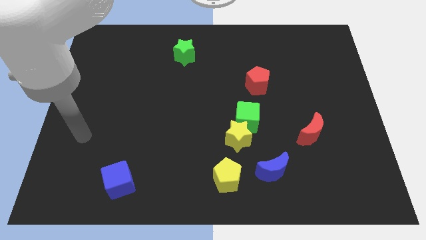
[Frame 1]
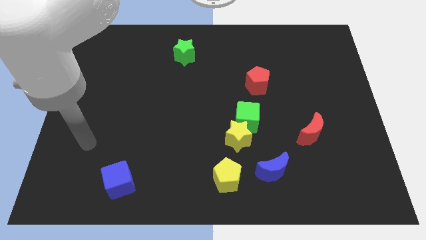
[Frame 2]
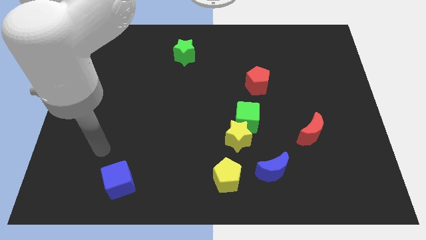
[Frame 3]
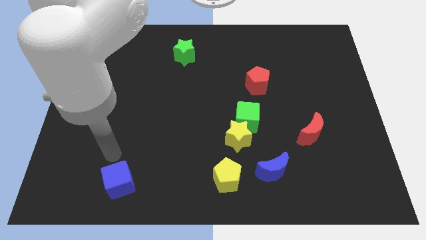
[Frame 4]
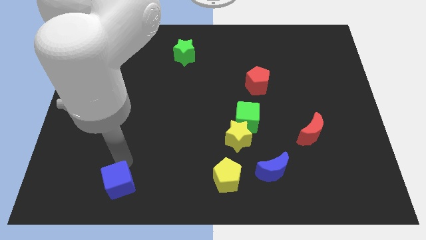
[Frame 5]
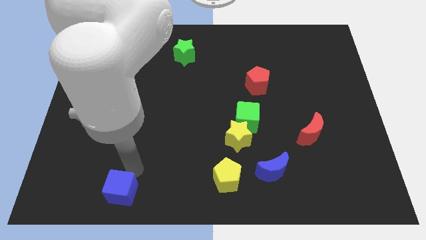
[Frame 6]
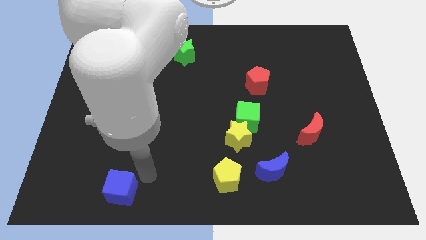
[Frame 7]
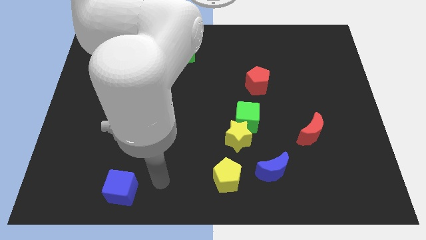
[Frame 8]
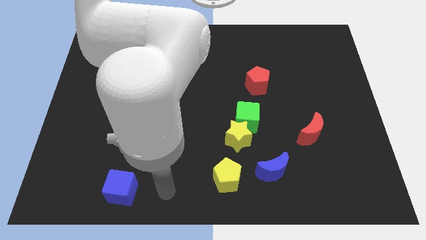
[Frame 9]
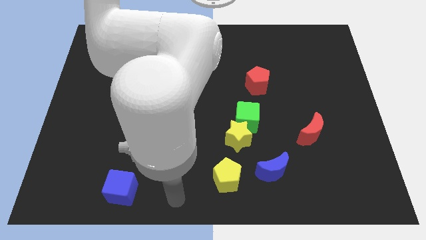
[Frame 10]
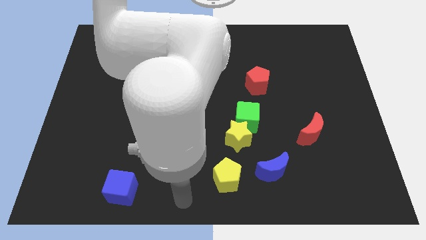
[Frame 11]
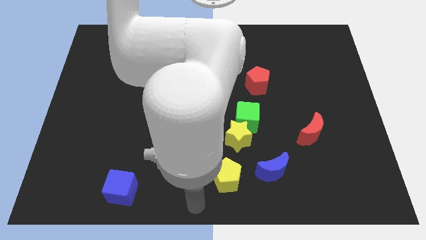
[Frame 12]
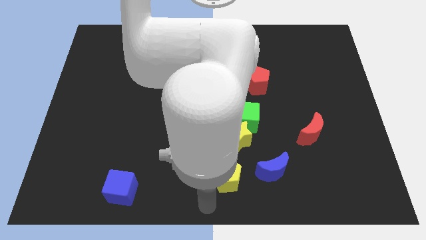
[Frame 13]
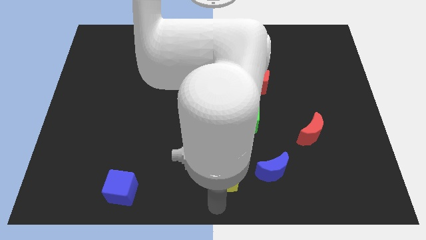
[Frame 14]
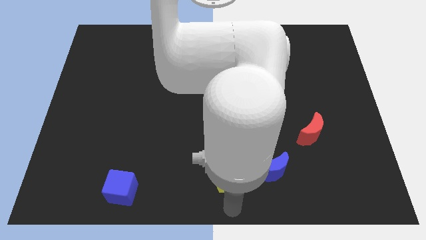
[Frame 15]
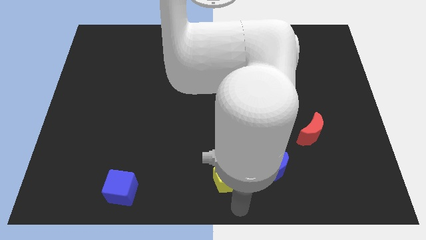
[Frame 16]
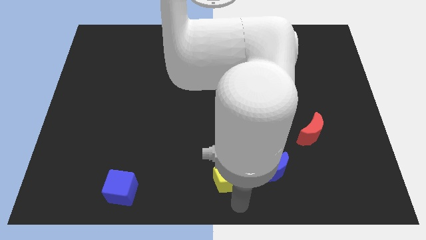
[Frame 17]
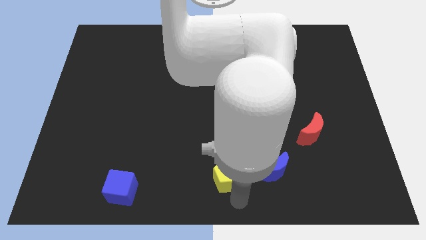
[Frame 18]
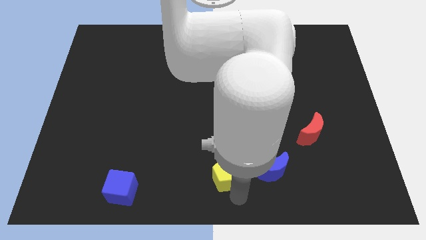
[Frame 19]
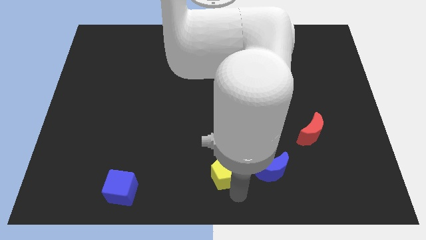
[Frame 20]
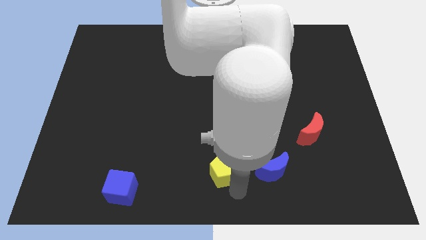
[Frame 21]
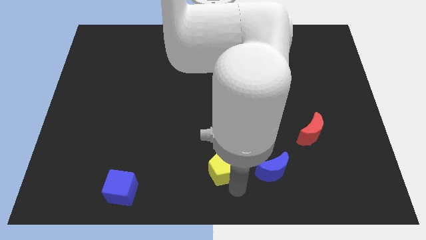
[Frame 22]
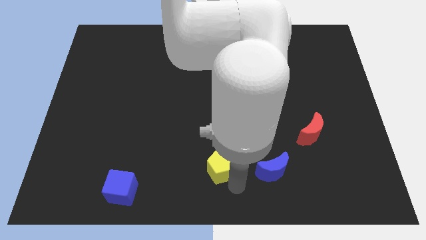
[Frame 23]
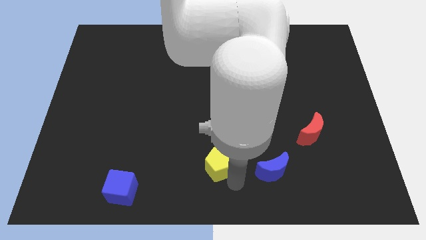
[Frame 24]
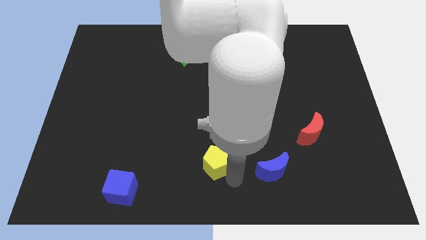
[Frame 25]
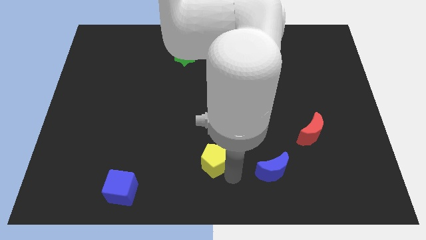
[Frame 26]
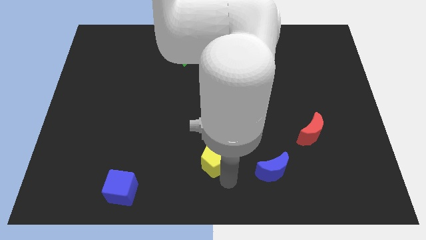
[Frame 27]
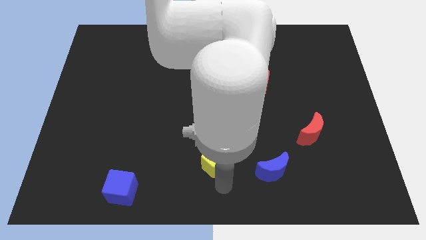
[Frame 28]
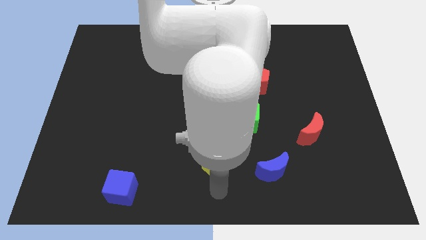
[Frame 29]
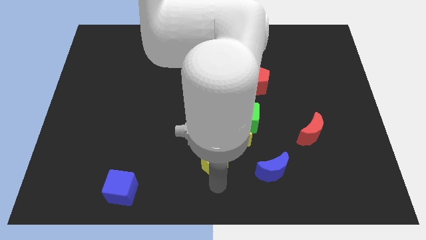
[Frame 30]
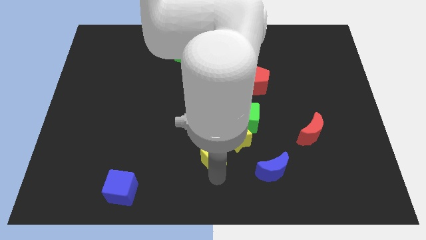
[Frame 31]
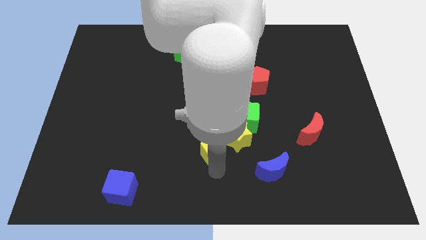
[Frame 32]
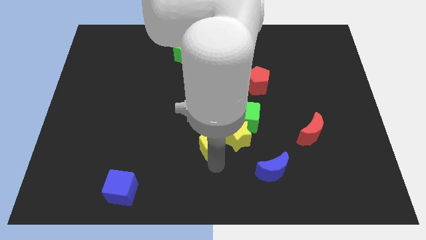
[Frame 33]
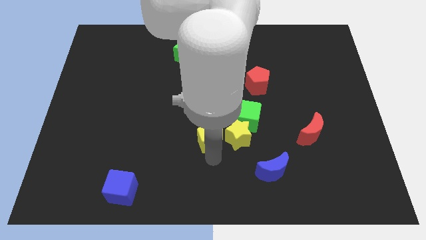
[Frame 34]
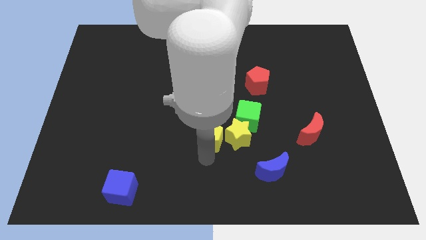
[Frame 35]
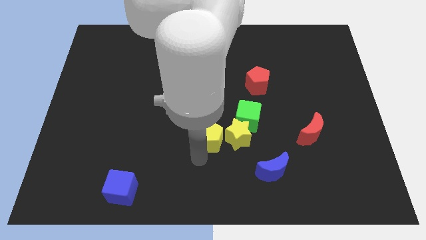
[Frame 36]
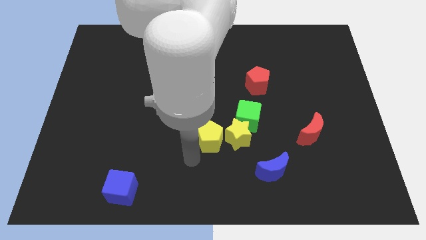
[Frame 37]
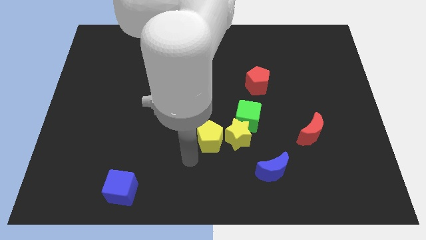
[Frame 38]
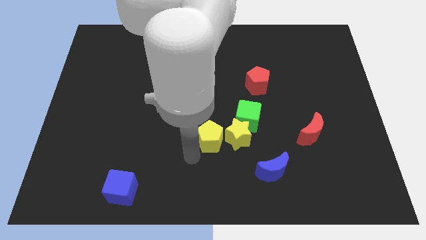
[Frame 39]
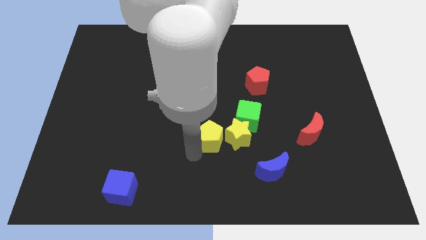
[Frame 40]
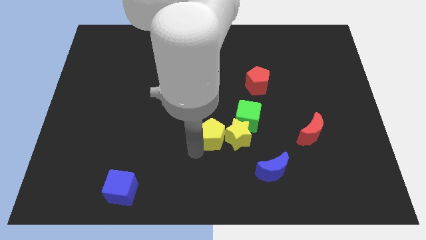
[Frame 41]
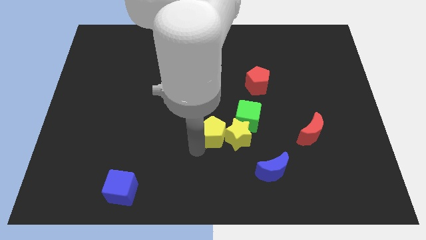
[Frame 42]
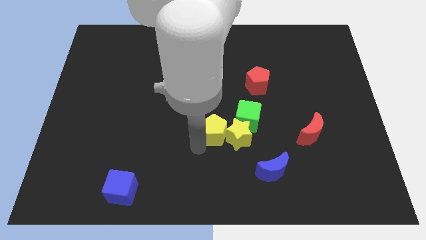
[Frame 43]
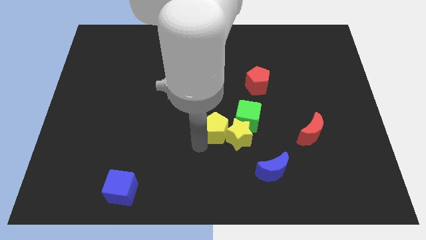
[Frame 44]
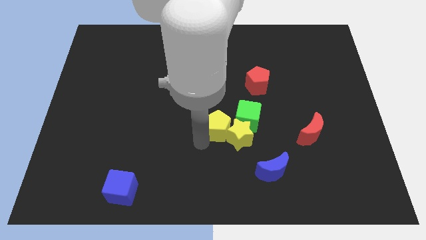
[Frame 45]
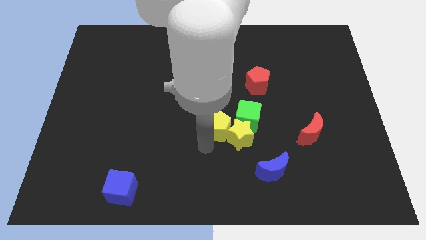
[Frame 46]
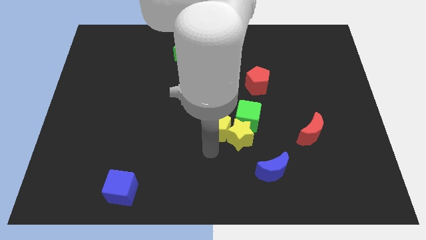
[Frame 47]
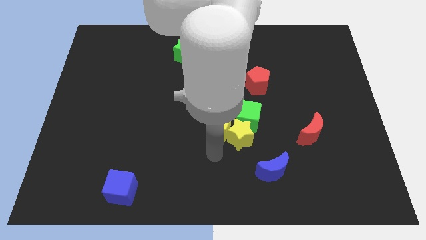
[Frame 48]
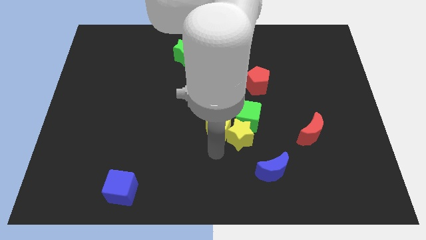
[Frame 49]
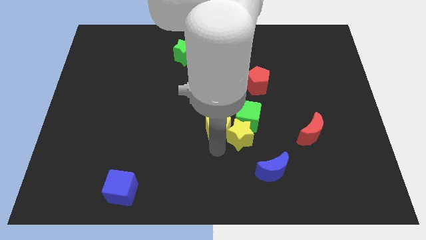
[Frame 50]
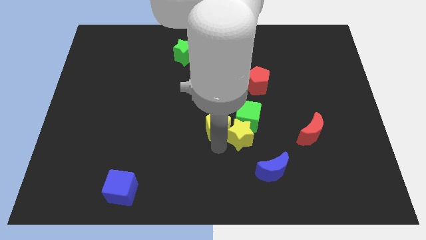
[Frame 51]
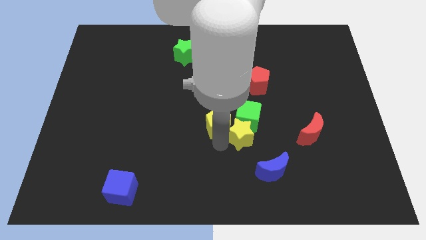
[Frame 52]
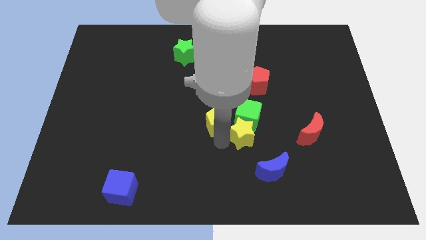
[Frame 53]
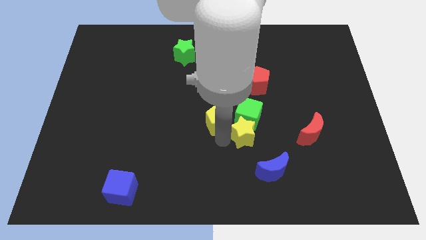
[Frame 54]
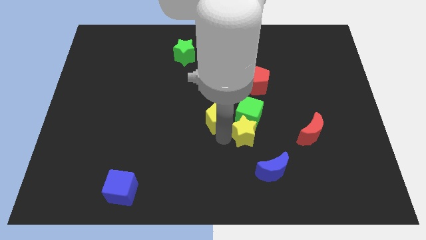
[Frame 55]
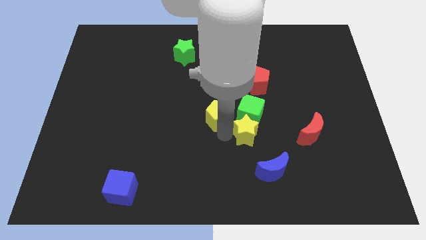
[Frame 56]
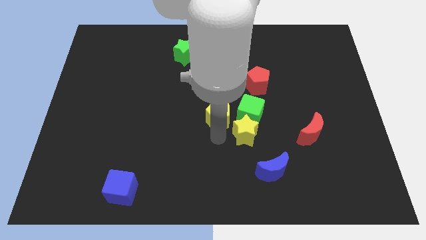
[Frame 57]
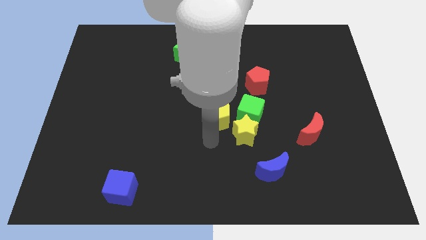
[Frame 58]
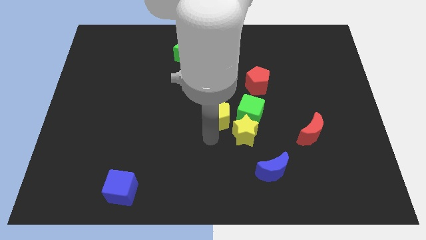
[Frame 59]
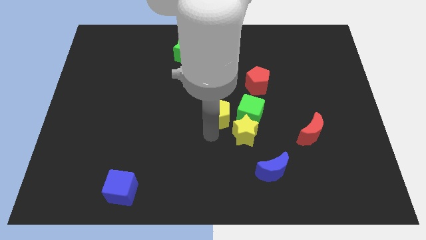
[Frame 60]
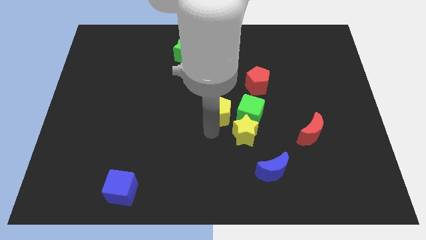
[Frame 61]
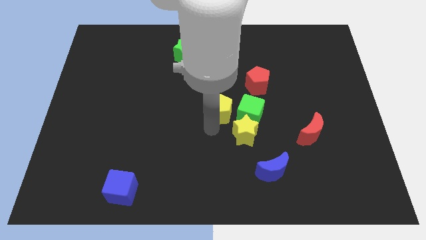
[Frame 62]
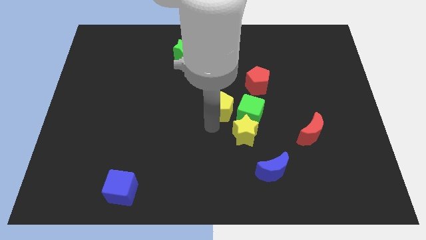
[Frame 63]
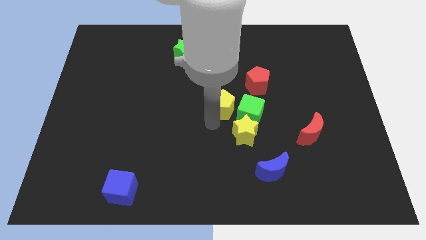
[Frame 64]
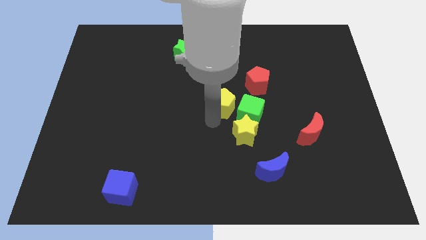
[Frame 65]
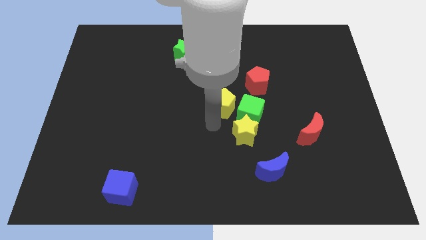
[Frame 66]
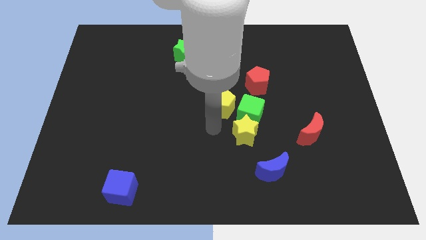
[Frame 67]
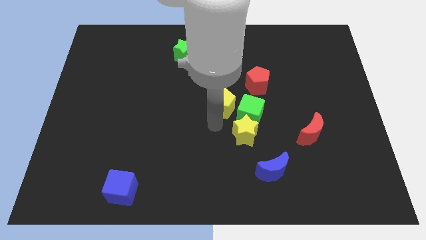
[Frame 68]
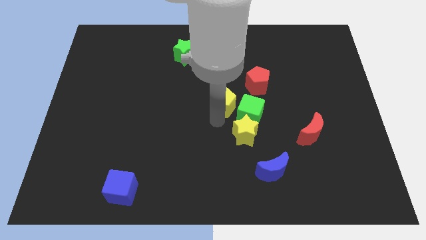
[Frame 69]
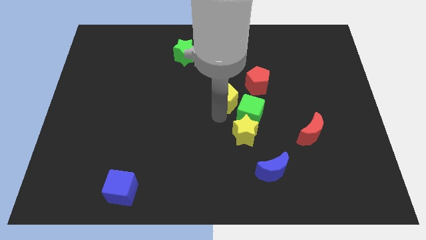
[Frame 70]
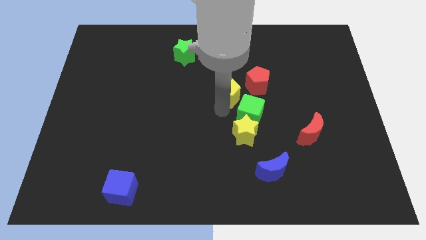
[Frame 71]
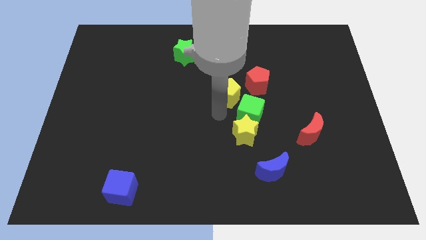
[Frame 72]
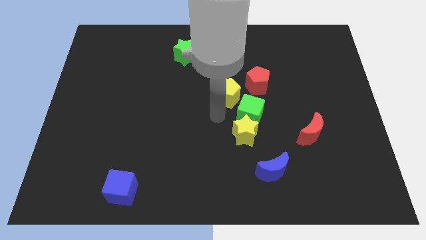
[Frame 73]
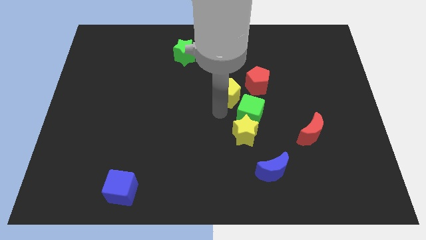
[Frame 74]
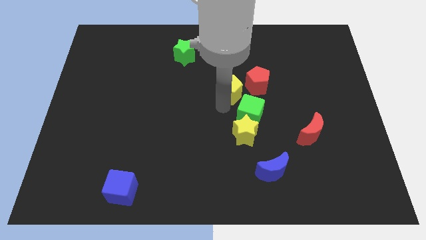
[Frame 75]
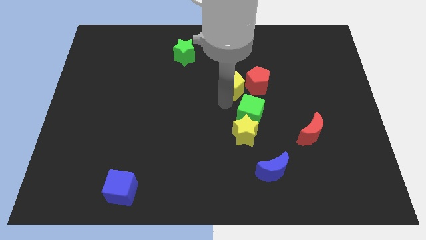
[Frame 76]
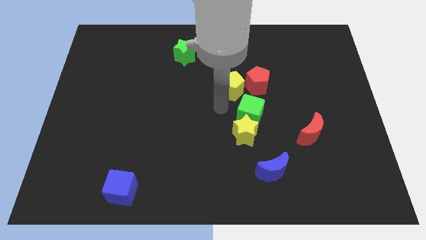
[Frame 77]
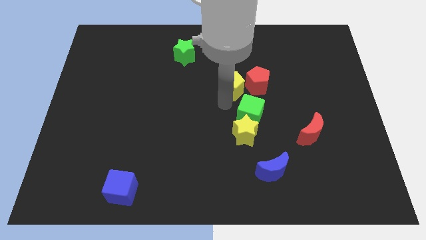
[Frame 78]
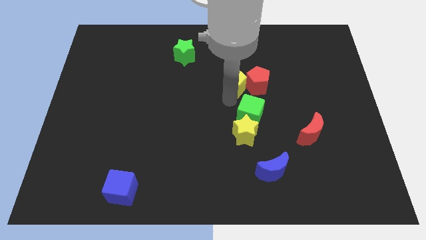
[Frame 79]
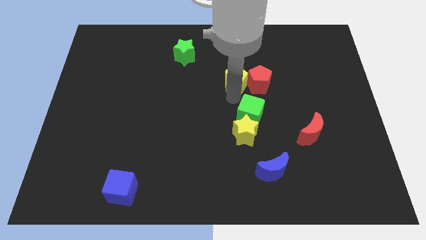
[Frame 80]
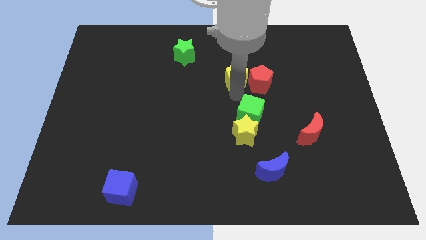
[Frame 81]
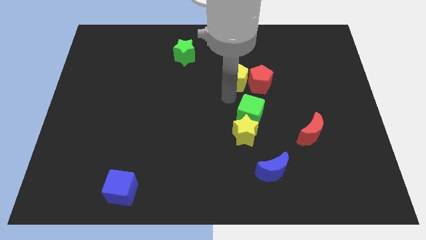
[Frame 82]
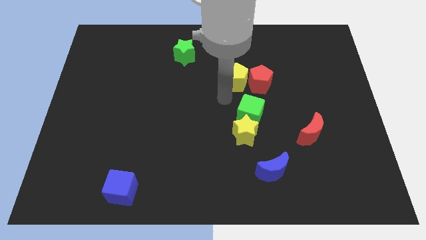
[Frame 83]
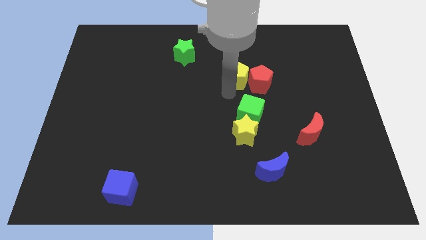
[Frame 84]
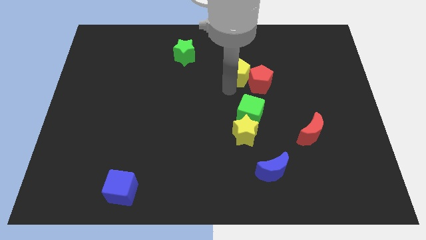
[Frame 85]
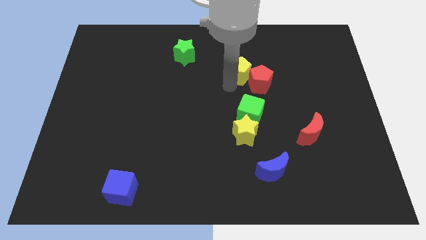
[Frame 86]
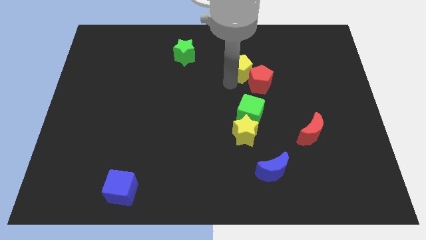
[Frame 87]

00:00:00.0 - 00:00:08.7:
push the yellow pentagon to the top side of the red pentagon
